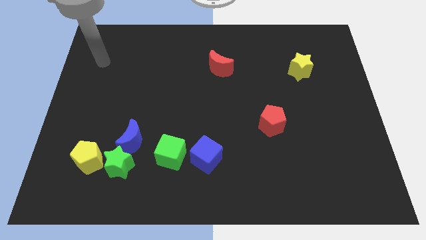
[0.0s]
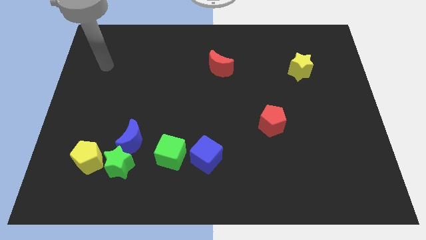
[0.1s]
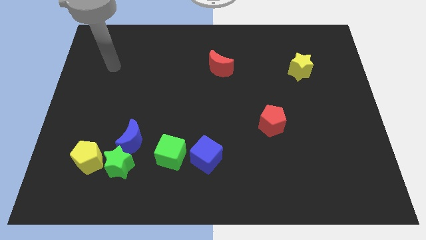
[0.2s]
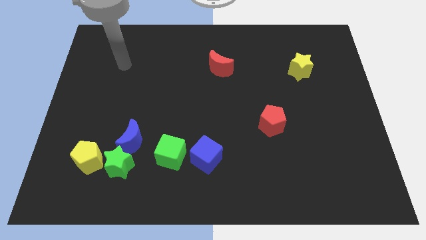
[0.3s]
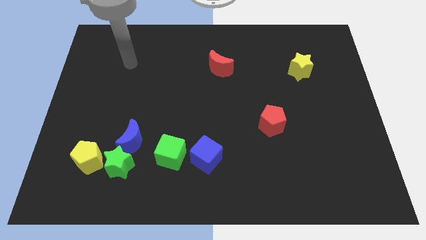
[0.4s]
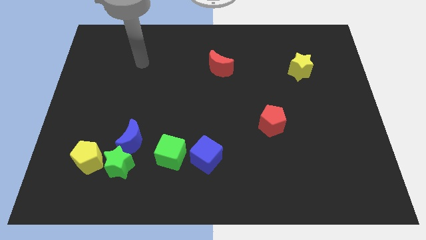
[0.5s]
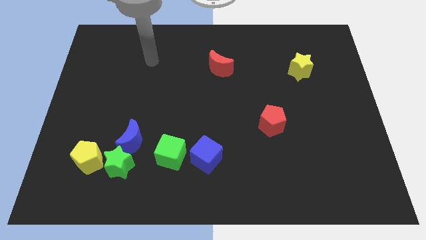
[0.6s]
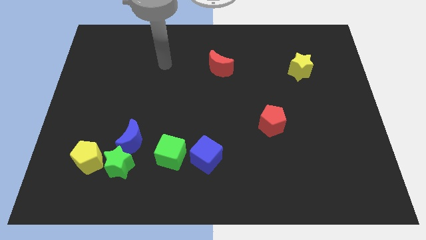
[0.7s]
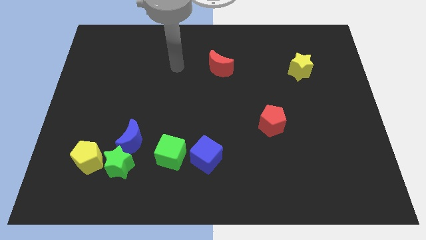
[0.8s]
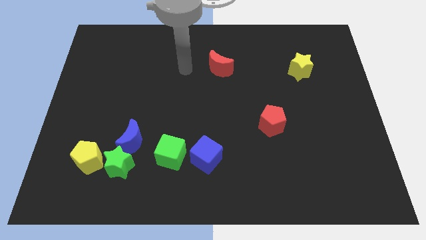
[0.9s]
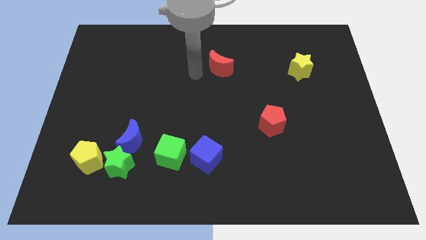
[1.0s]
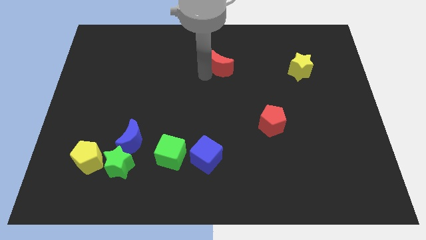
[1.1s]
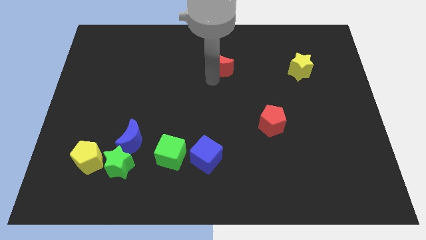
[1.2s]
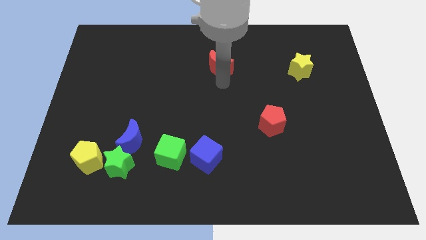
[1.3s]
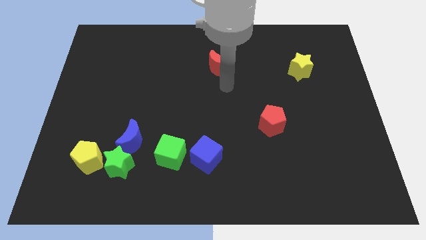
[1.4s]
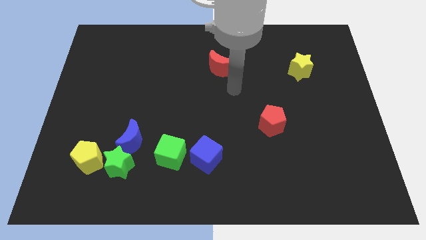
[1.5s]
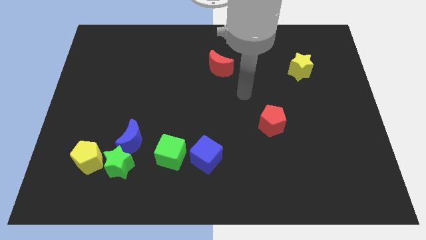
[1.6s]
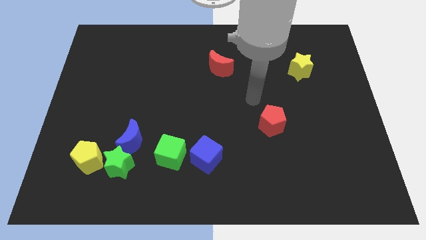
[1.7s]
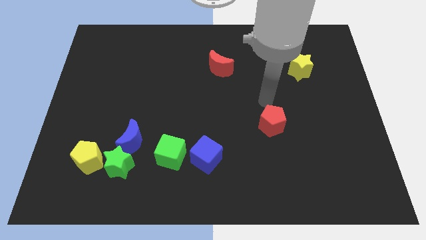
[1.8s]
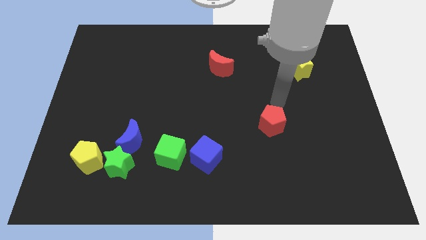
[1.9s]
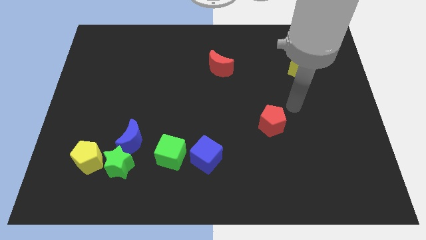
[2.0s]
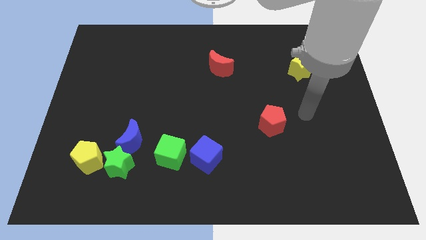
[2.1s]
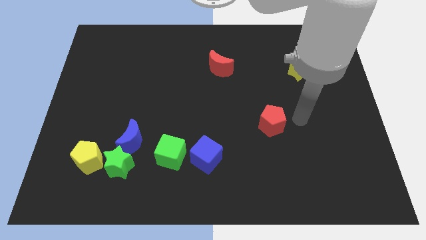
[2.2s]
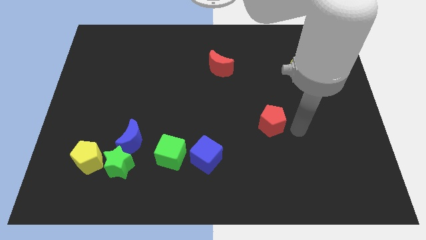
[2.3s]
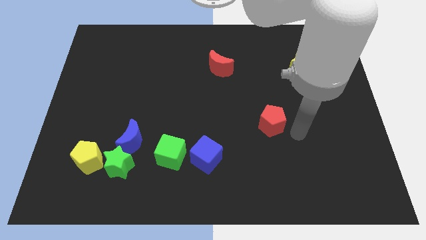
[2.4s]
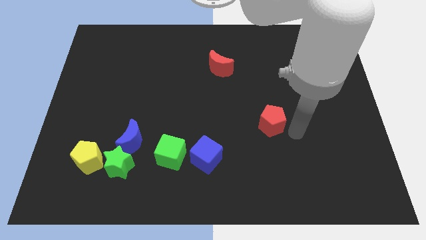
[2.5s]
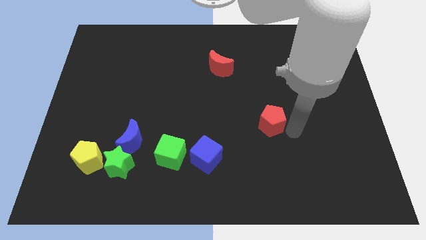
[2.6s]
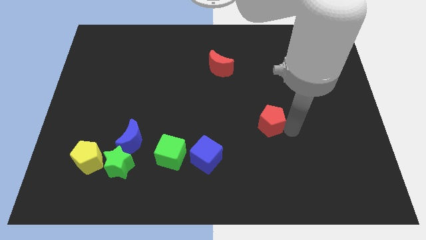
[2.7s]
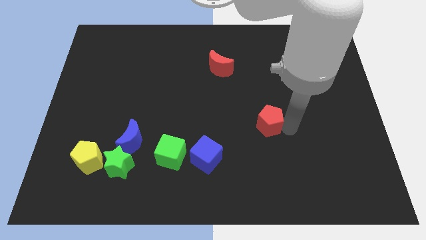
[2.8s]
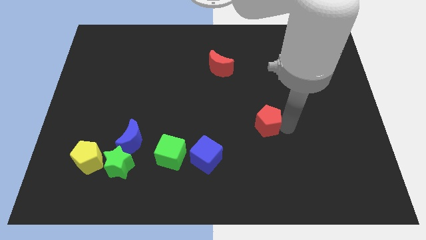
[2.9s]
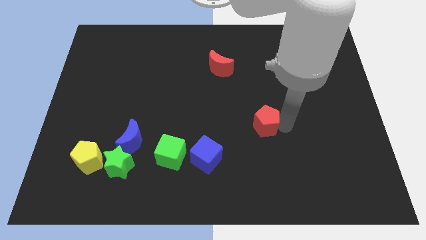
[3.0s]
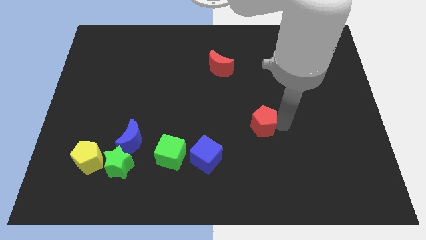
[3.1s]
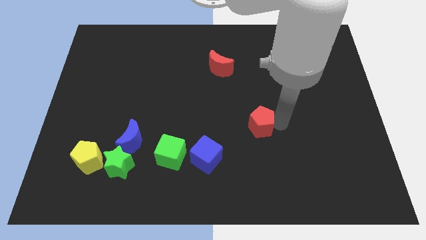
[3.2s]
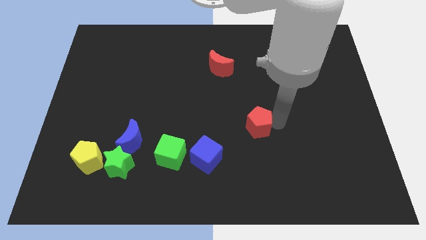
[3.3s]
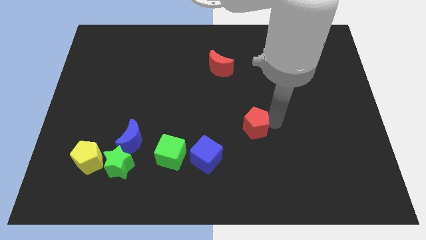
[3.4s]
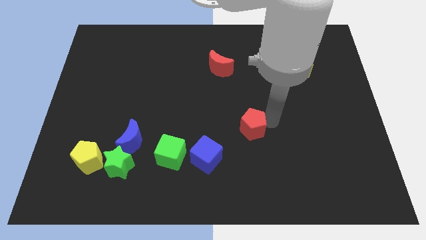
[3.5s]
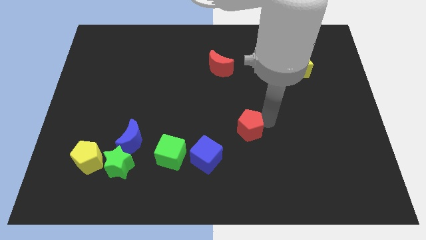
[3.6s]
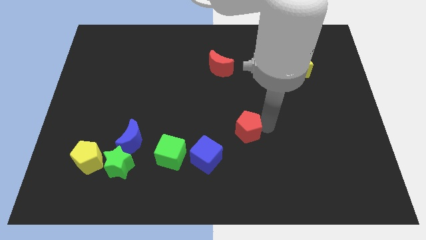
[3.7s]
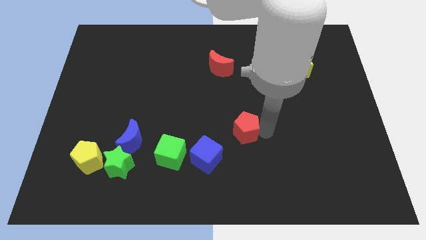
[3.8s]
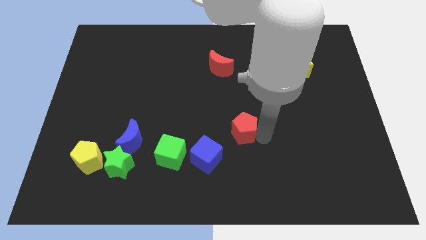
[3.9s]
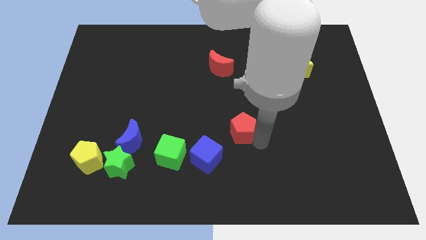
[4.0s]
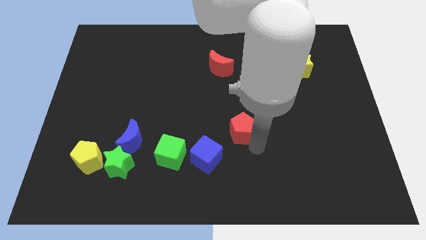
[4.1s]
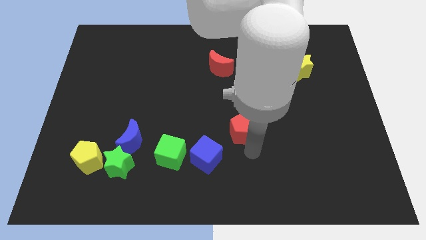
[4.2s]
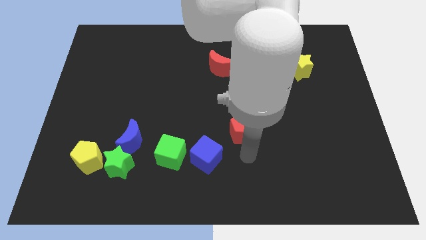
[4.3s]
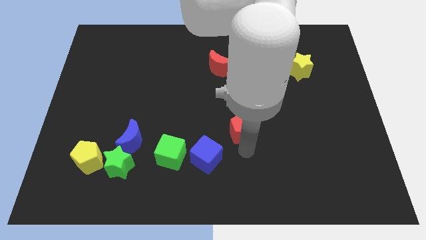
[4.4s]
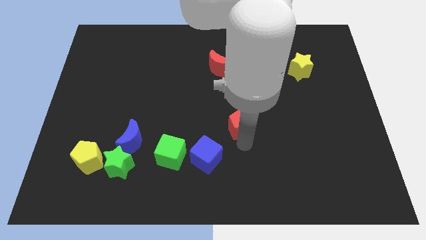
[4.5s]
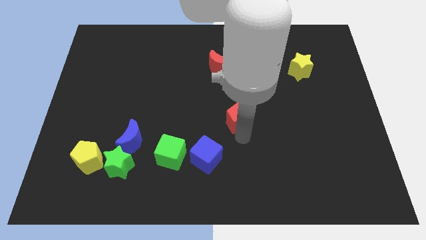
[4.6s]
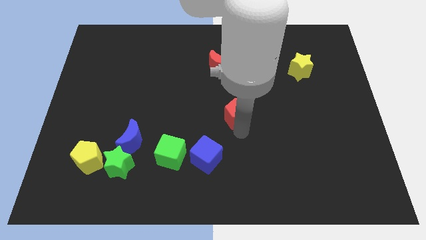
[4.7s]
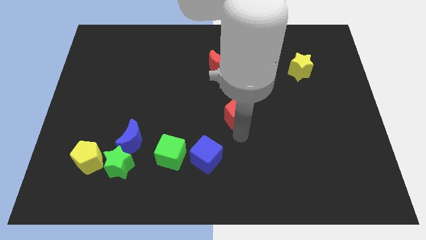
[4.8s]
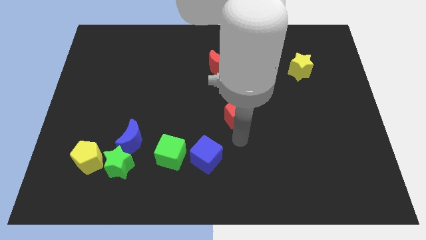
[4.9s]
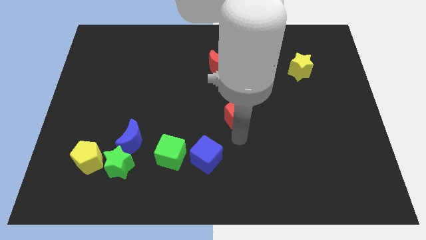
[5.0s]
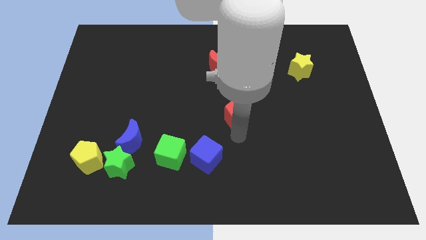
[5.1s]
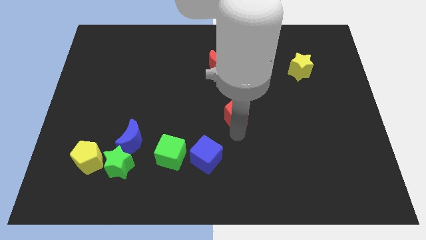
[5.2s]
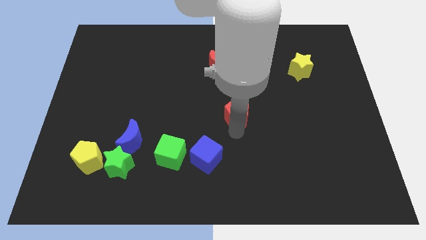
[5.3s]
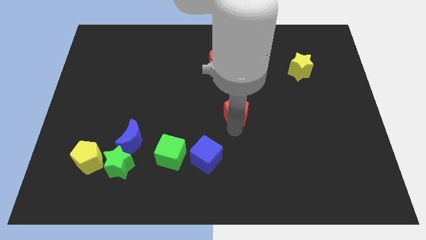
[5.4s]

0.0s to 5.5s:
put the red pentagon below the red moon

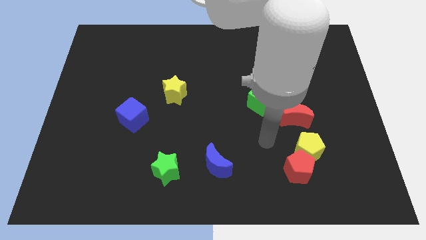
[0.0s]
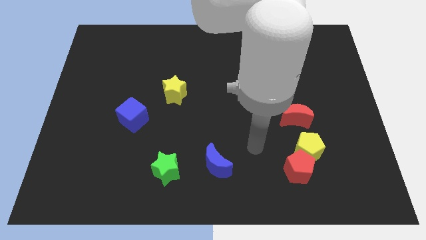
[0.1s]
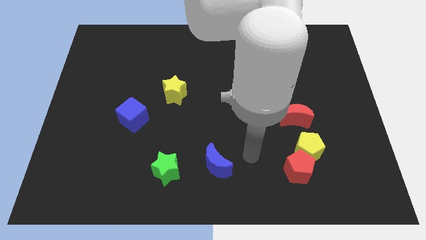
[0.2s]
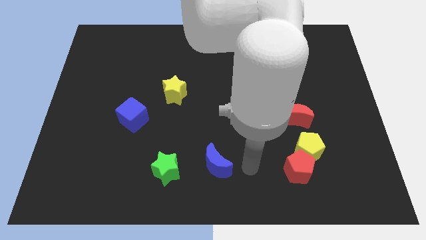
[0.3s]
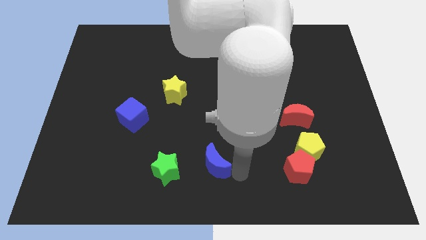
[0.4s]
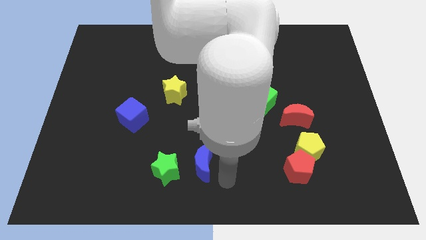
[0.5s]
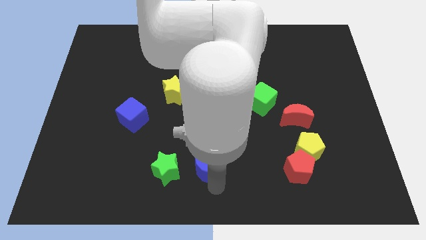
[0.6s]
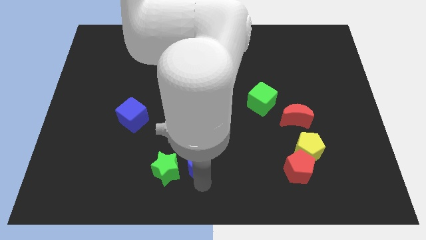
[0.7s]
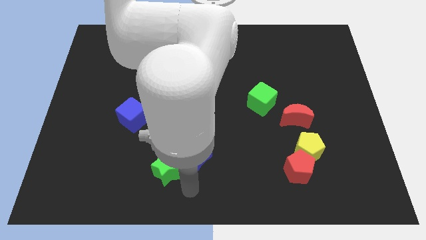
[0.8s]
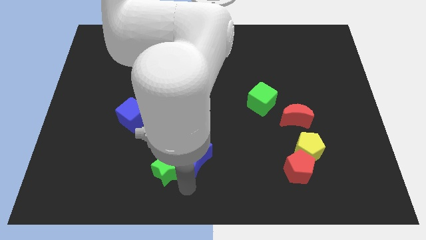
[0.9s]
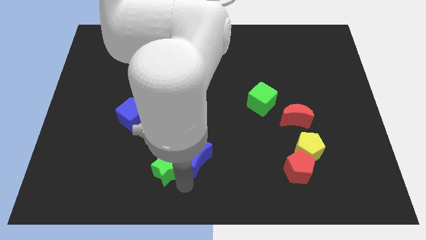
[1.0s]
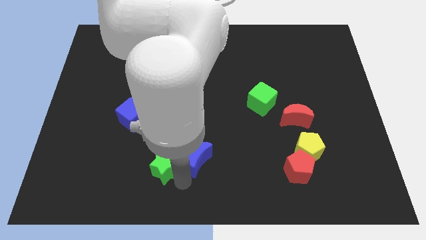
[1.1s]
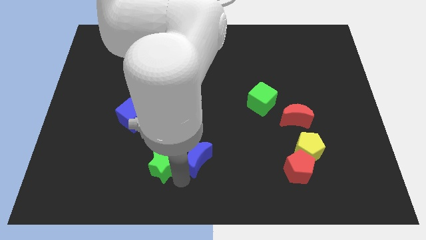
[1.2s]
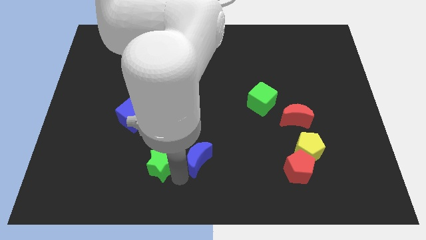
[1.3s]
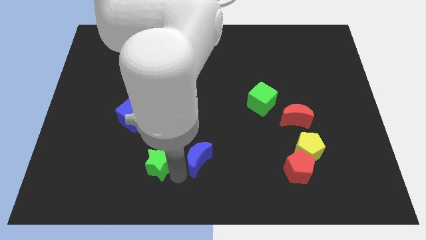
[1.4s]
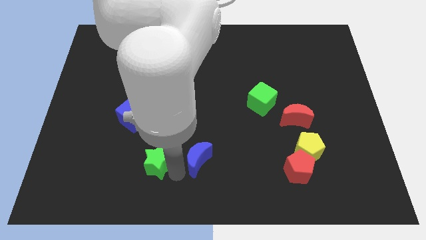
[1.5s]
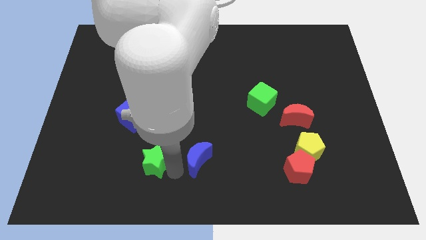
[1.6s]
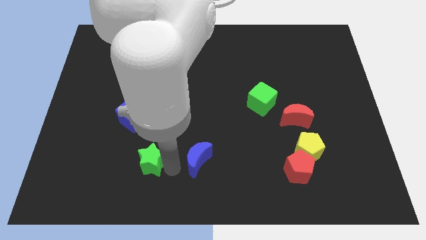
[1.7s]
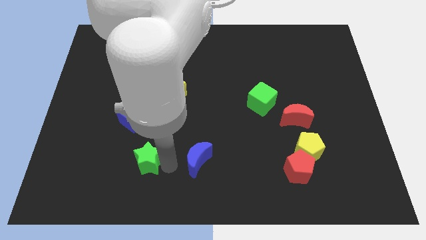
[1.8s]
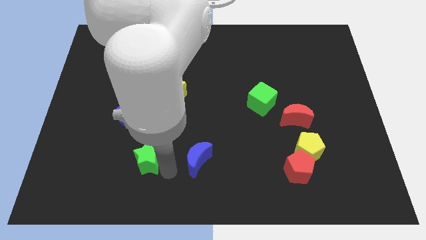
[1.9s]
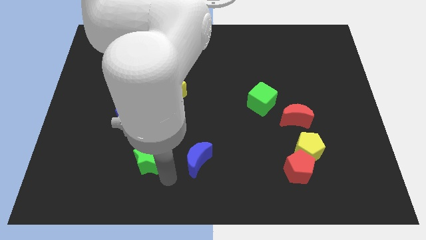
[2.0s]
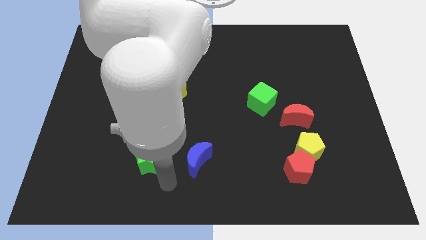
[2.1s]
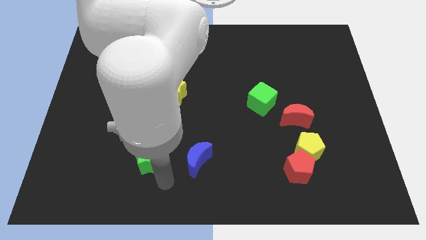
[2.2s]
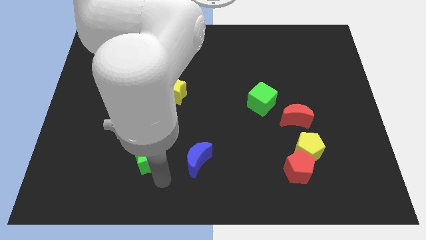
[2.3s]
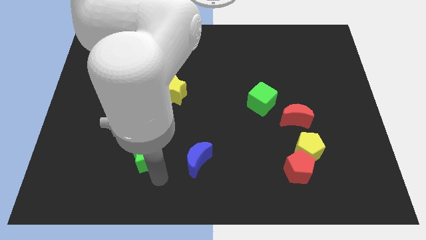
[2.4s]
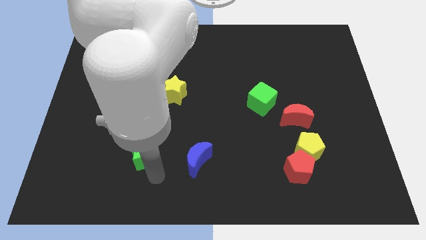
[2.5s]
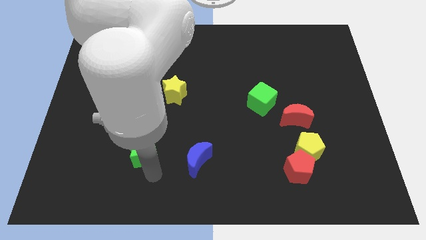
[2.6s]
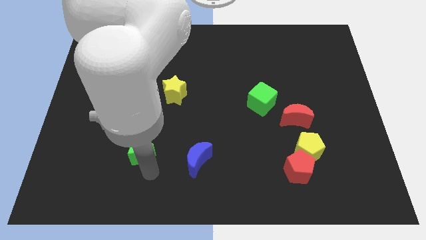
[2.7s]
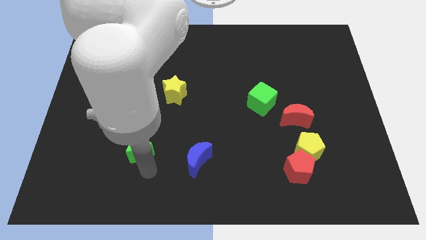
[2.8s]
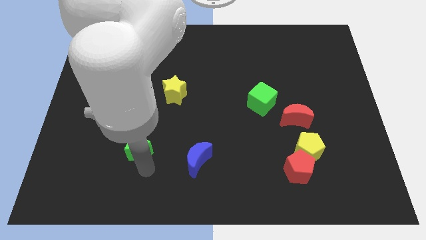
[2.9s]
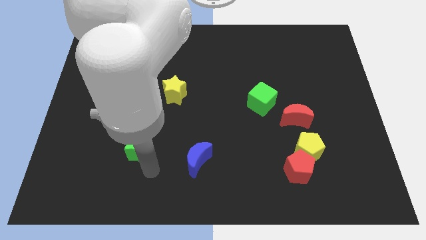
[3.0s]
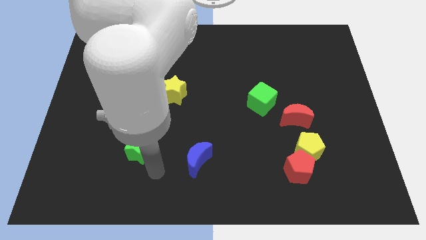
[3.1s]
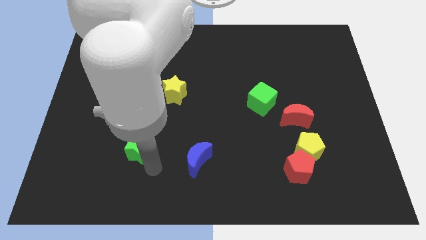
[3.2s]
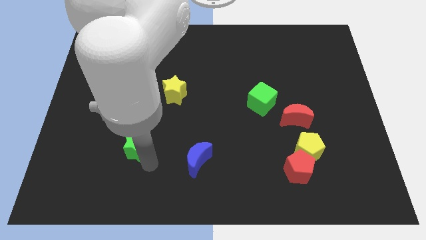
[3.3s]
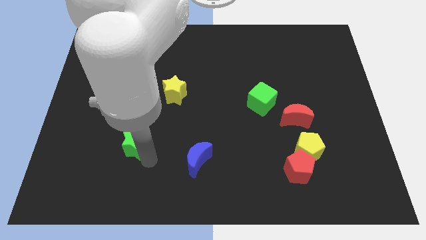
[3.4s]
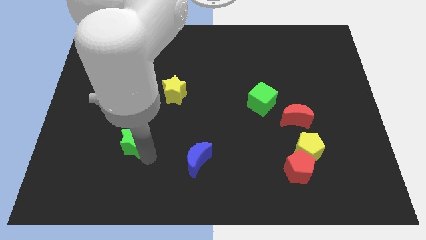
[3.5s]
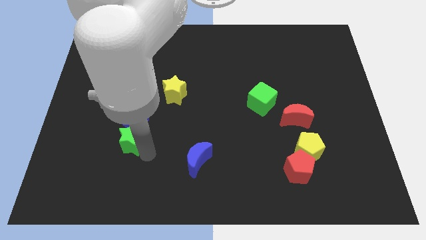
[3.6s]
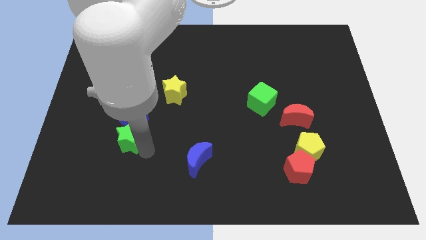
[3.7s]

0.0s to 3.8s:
move the green star to the bottom left side of the blue cube
